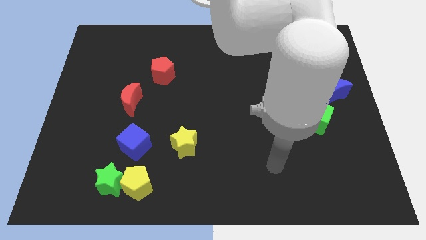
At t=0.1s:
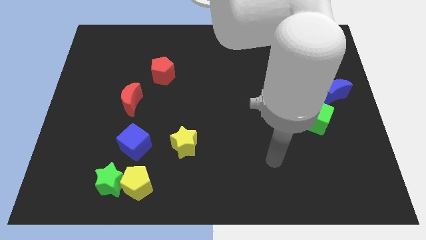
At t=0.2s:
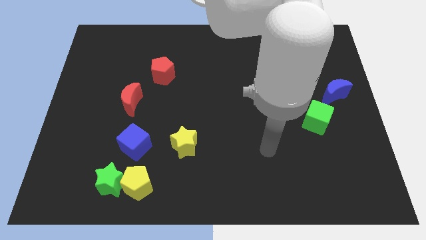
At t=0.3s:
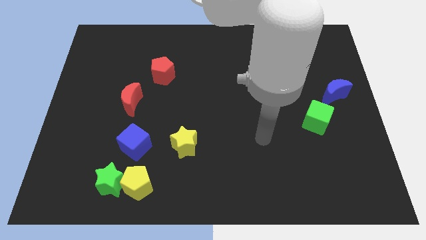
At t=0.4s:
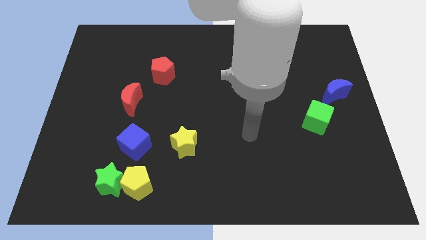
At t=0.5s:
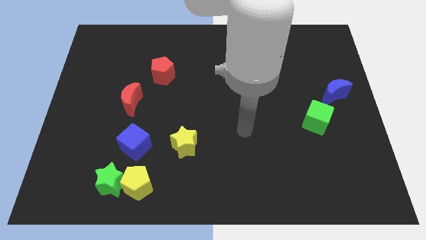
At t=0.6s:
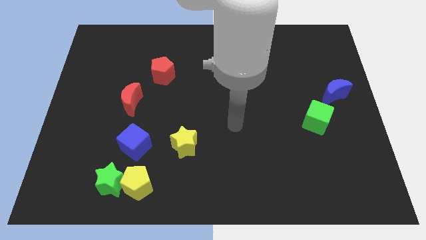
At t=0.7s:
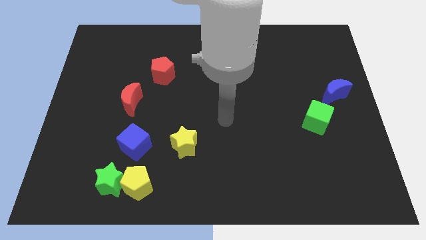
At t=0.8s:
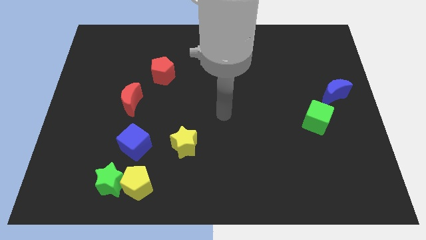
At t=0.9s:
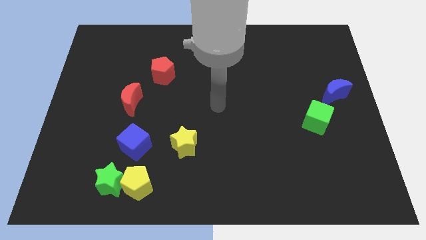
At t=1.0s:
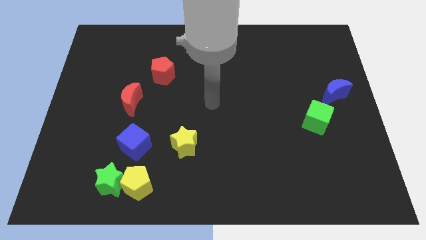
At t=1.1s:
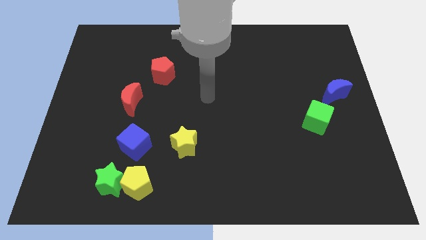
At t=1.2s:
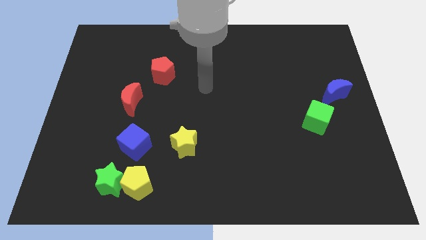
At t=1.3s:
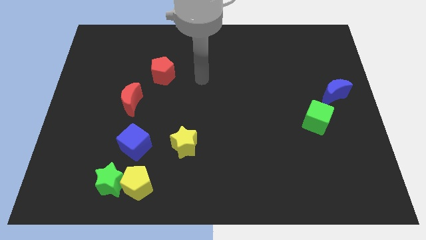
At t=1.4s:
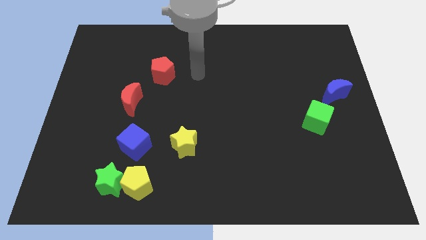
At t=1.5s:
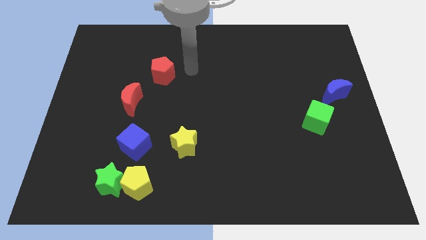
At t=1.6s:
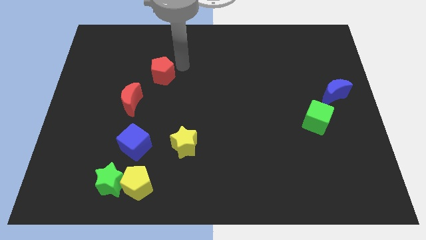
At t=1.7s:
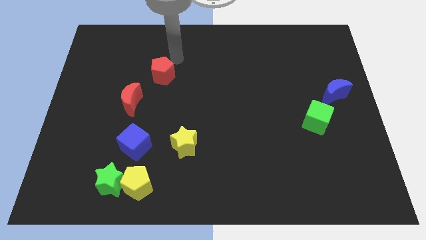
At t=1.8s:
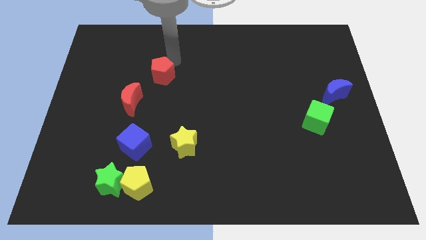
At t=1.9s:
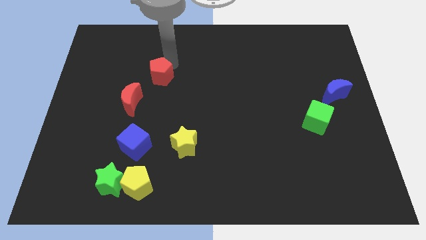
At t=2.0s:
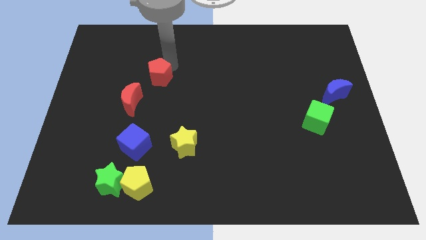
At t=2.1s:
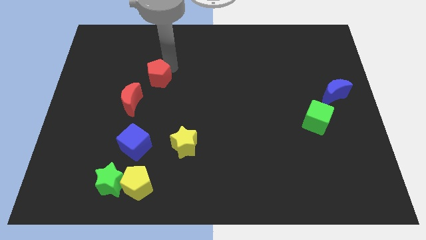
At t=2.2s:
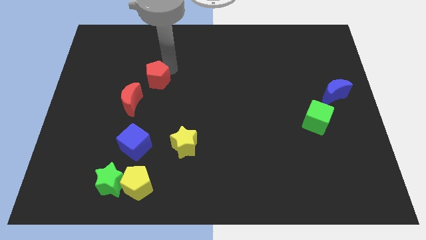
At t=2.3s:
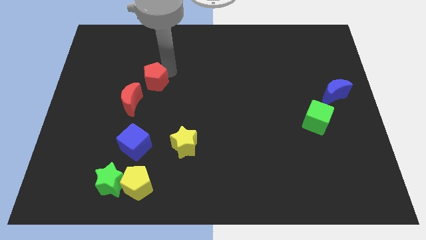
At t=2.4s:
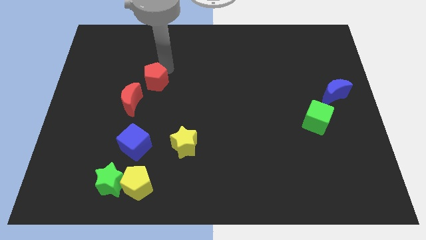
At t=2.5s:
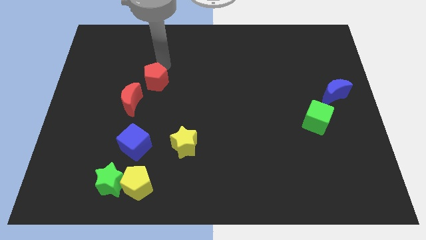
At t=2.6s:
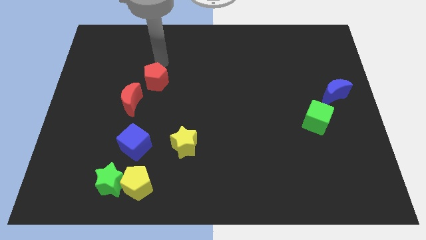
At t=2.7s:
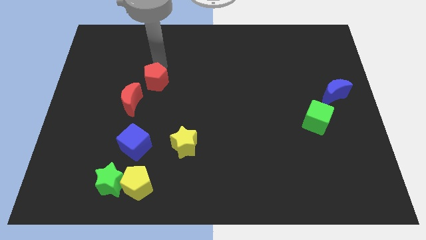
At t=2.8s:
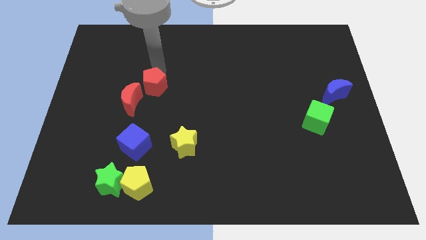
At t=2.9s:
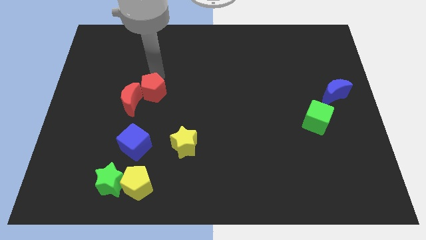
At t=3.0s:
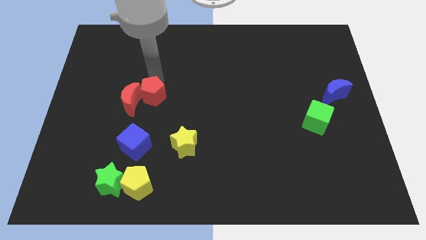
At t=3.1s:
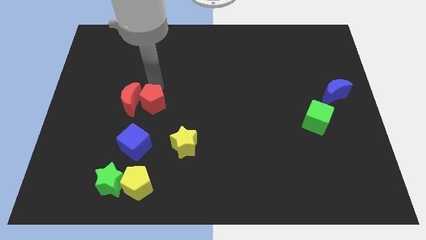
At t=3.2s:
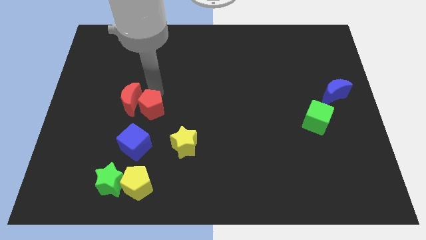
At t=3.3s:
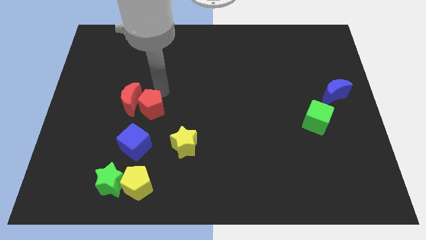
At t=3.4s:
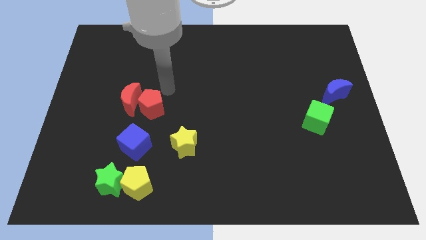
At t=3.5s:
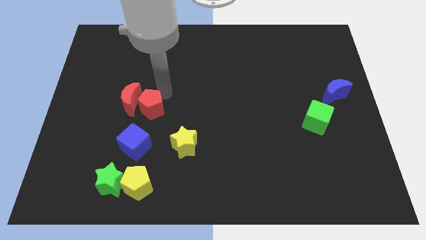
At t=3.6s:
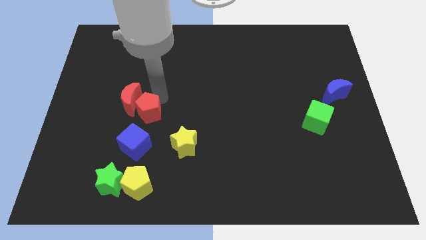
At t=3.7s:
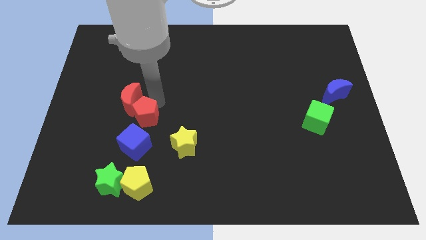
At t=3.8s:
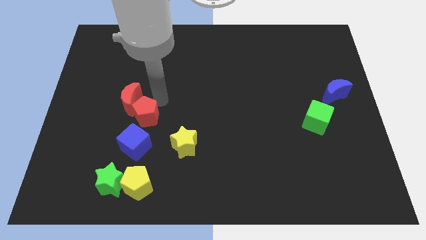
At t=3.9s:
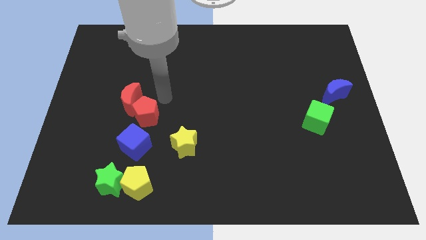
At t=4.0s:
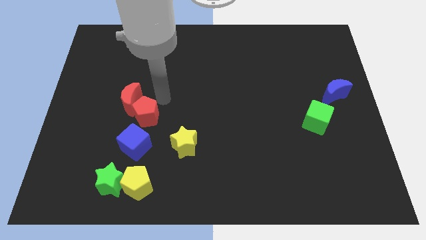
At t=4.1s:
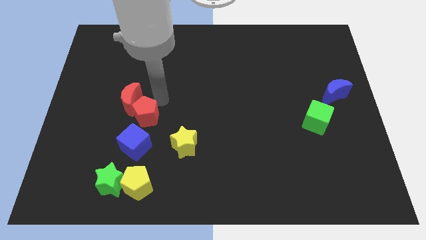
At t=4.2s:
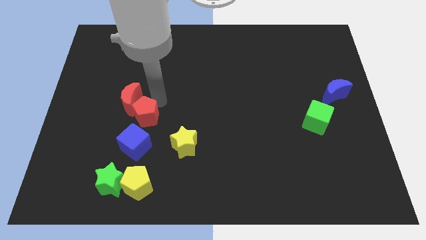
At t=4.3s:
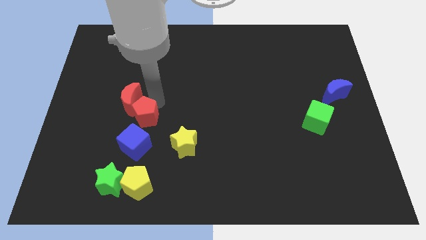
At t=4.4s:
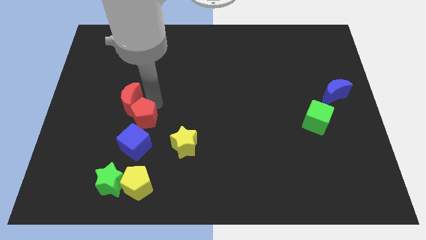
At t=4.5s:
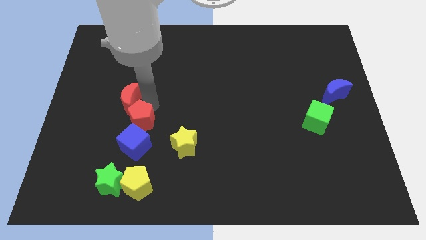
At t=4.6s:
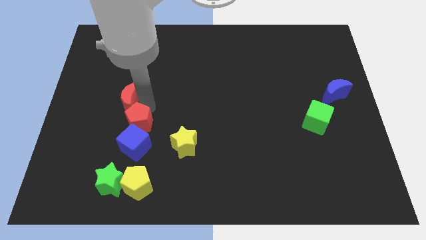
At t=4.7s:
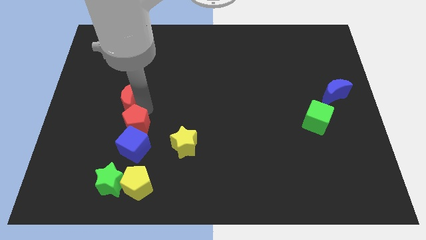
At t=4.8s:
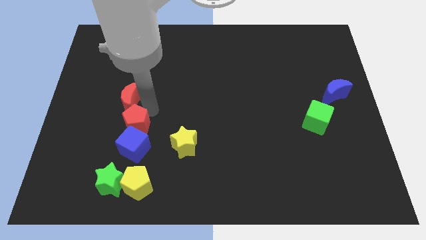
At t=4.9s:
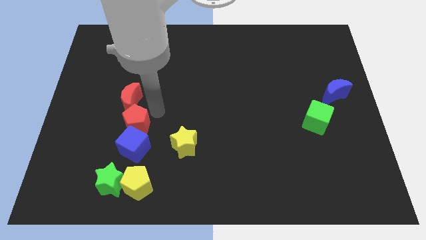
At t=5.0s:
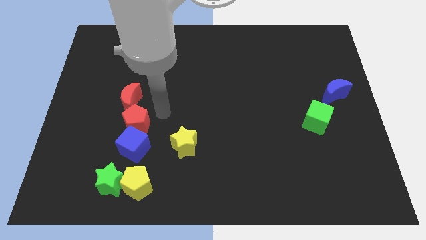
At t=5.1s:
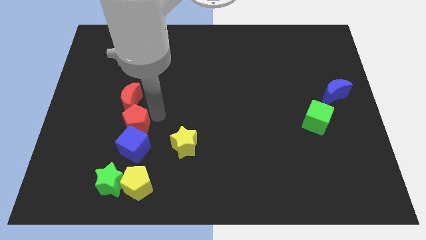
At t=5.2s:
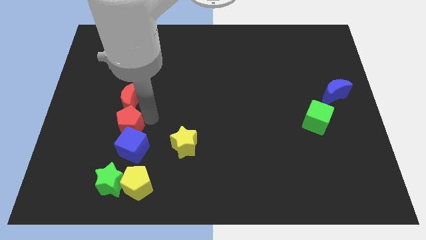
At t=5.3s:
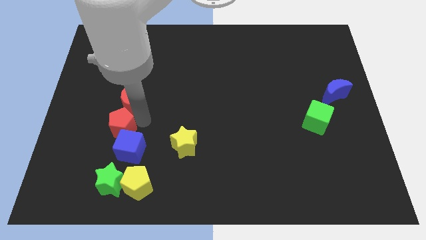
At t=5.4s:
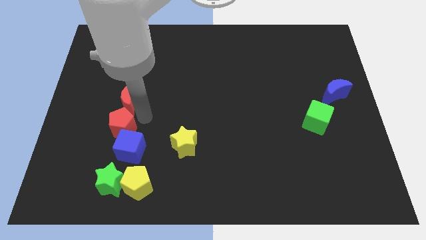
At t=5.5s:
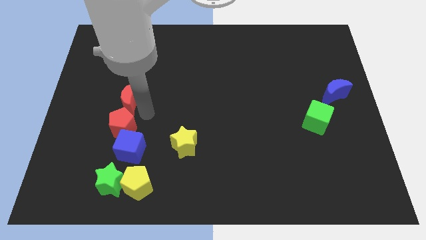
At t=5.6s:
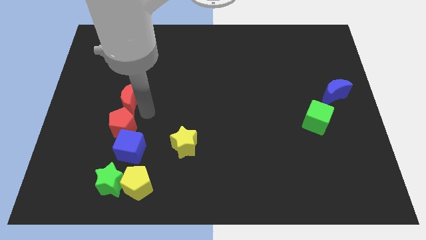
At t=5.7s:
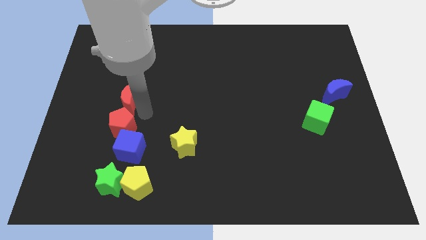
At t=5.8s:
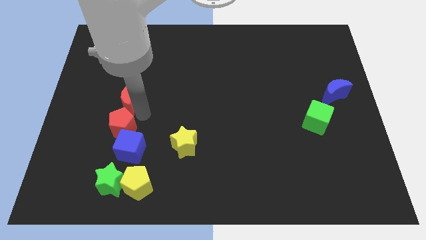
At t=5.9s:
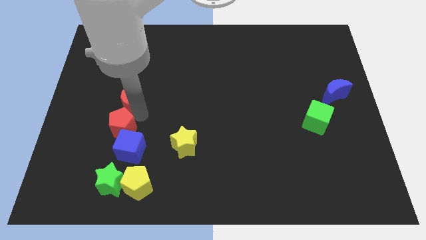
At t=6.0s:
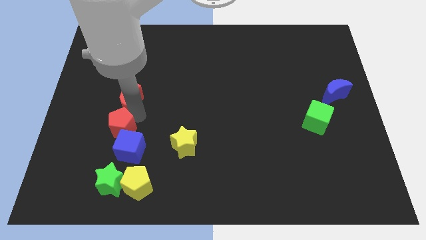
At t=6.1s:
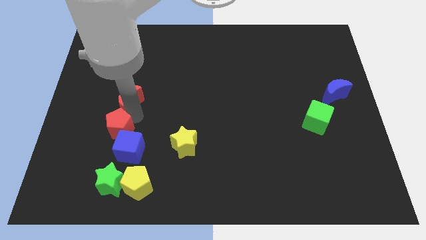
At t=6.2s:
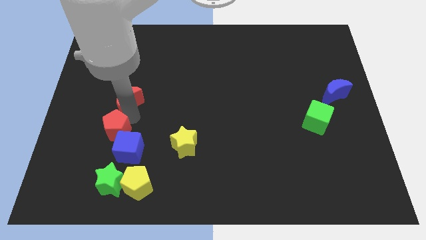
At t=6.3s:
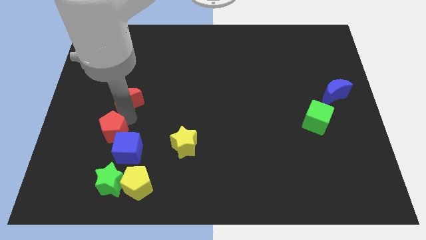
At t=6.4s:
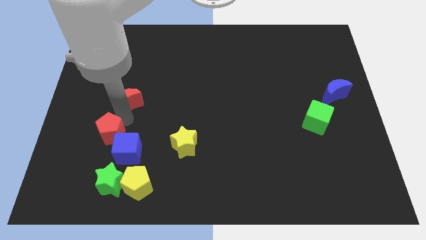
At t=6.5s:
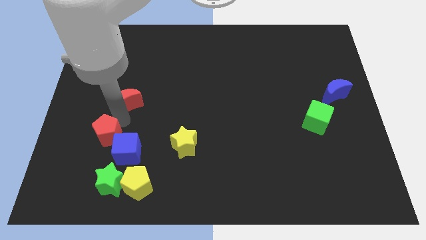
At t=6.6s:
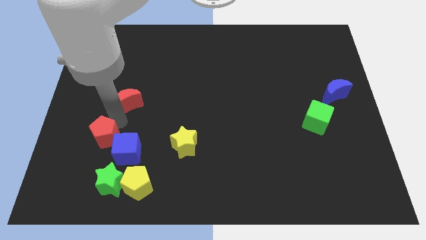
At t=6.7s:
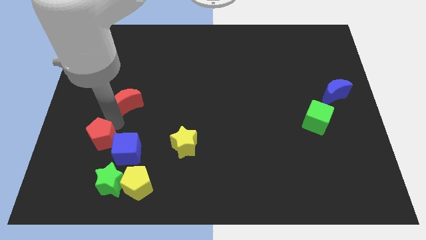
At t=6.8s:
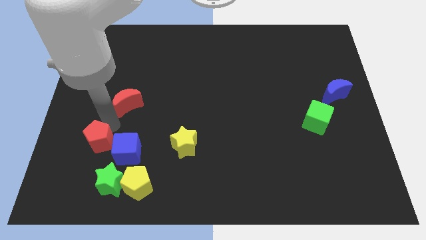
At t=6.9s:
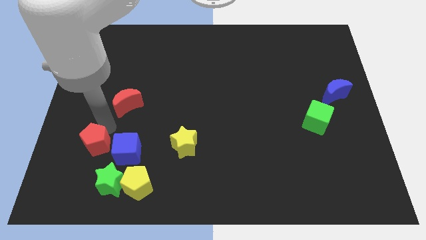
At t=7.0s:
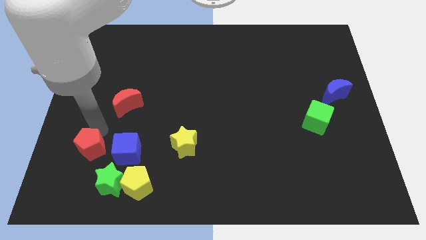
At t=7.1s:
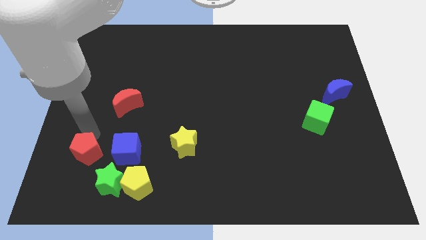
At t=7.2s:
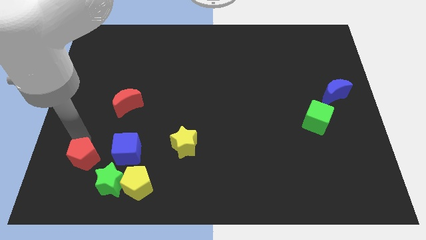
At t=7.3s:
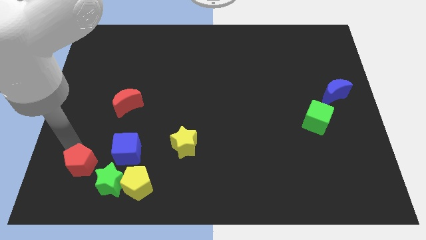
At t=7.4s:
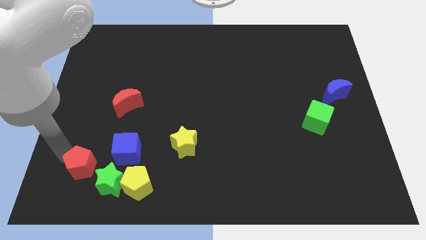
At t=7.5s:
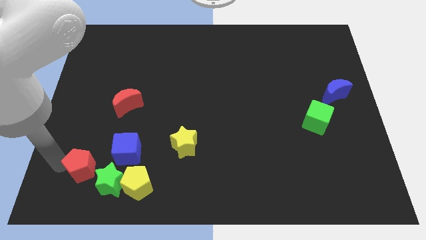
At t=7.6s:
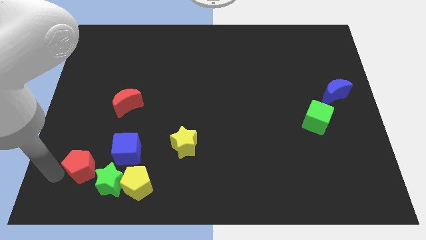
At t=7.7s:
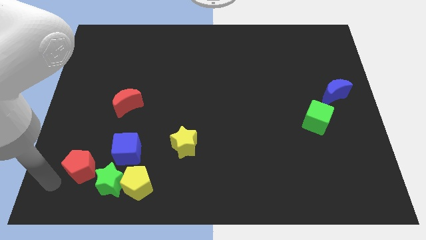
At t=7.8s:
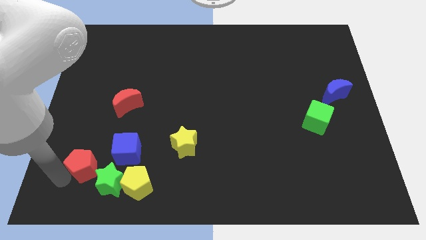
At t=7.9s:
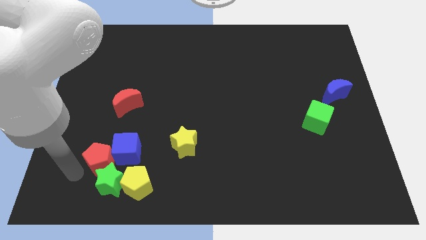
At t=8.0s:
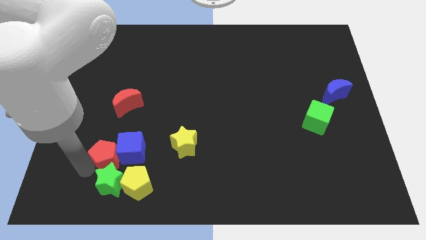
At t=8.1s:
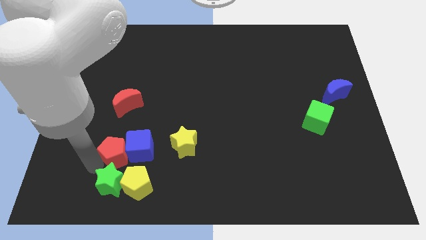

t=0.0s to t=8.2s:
put the red pentagon just left of the yellow star
